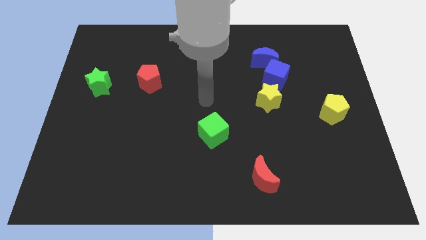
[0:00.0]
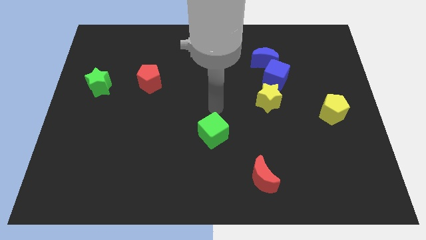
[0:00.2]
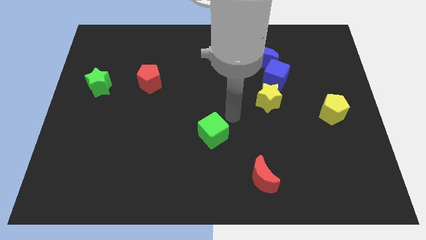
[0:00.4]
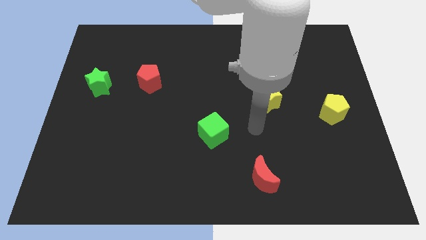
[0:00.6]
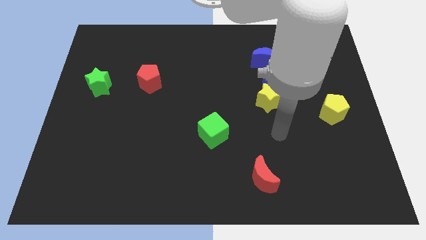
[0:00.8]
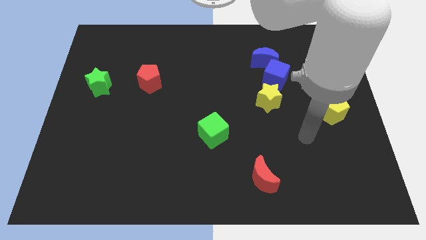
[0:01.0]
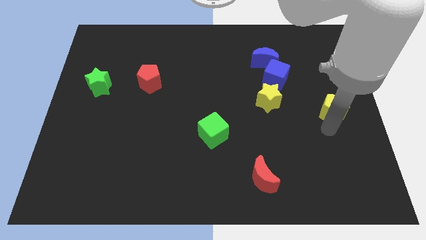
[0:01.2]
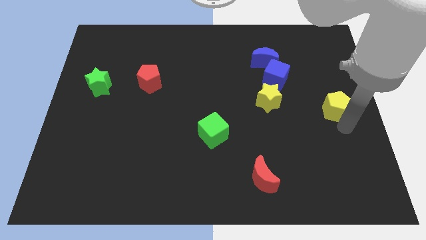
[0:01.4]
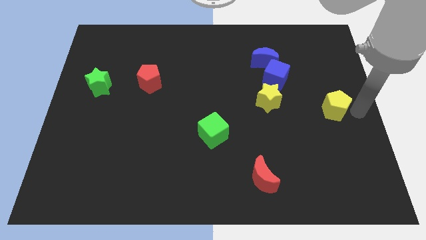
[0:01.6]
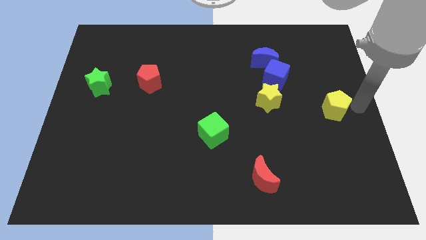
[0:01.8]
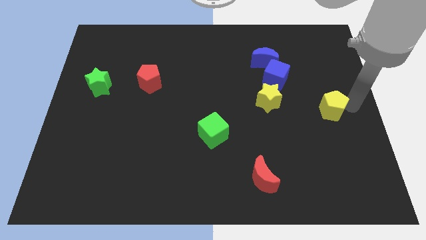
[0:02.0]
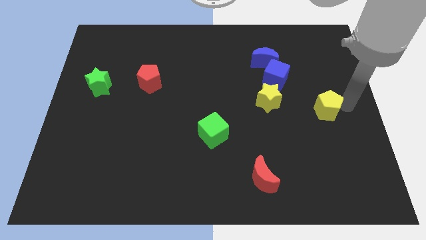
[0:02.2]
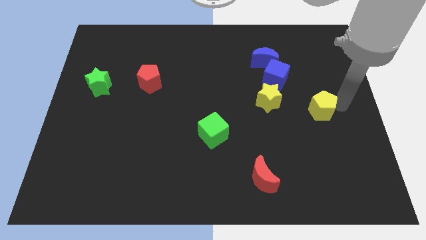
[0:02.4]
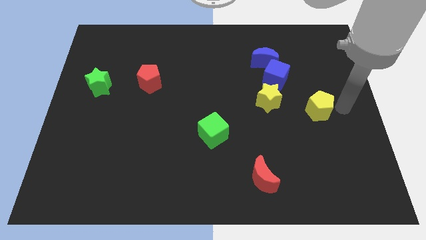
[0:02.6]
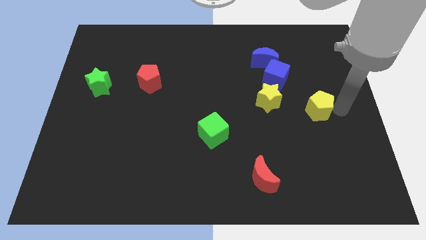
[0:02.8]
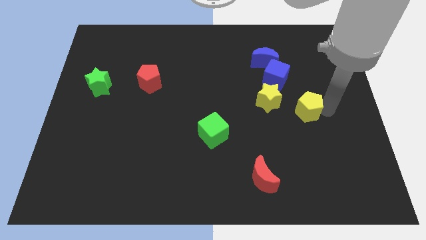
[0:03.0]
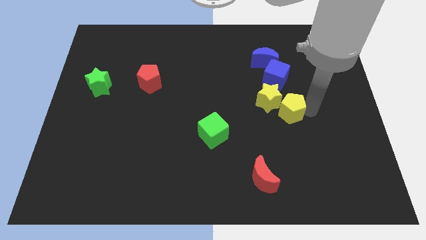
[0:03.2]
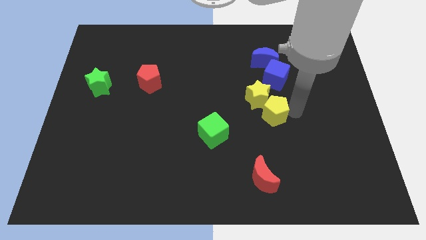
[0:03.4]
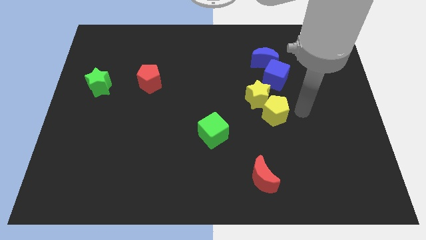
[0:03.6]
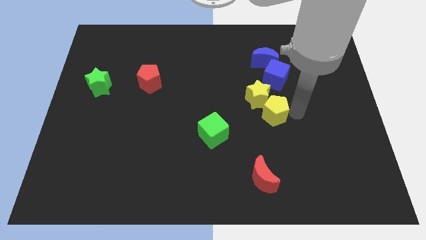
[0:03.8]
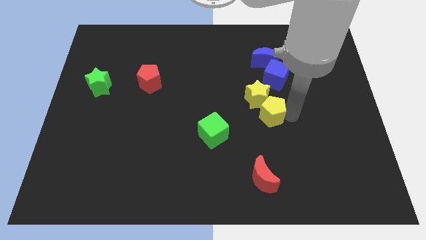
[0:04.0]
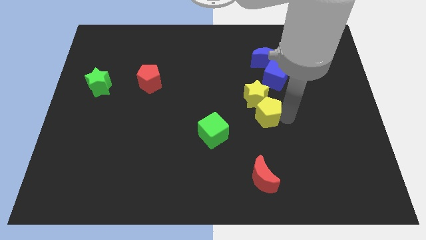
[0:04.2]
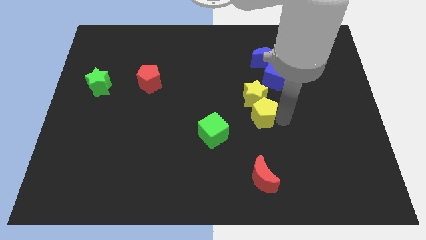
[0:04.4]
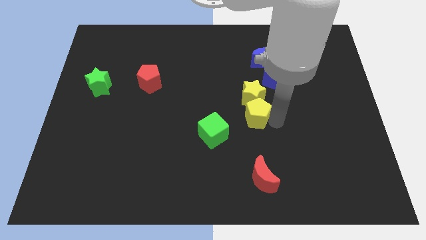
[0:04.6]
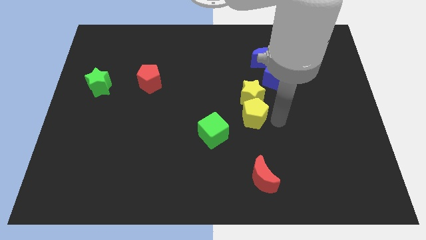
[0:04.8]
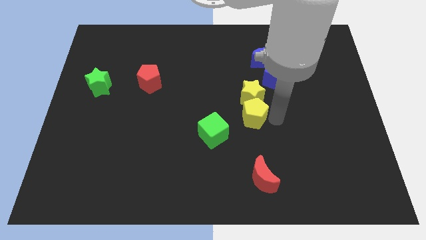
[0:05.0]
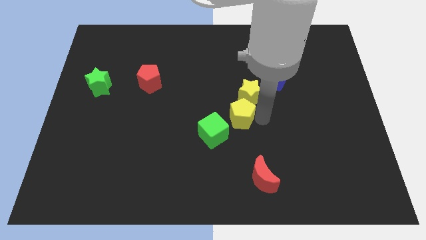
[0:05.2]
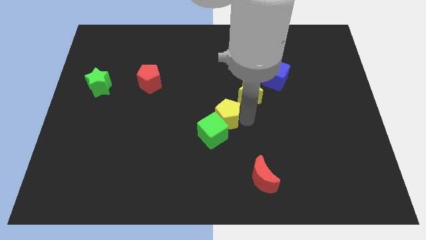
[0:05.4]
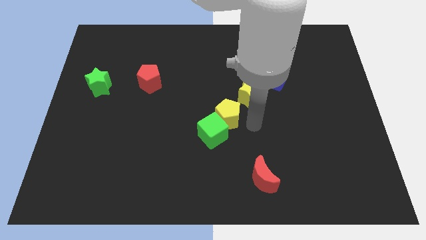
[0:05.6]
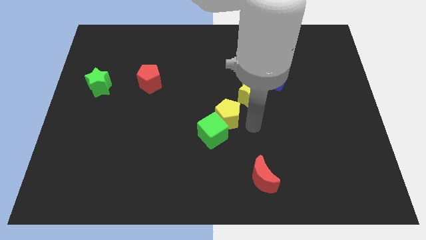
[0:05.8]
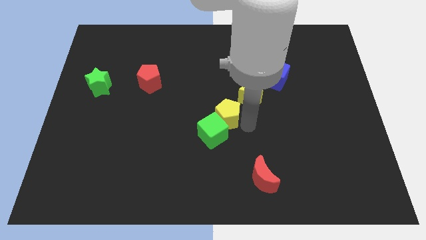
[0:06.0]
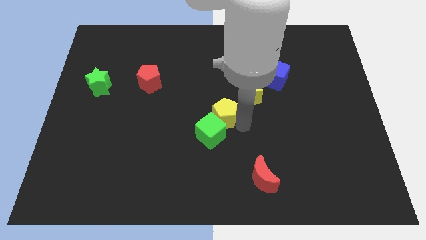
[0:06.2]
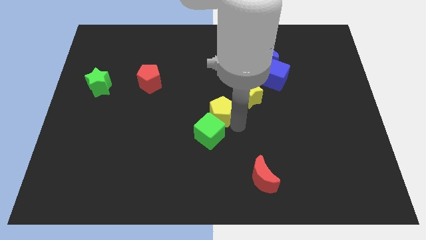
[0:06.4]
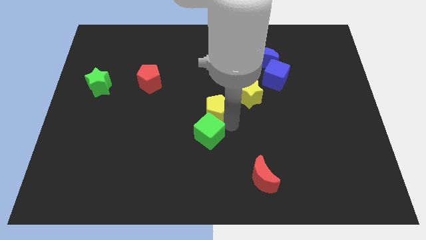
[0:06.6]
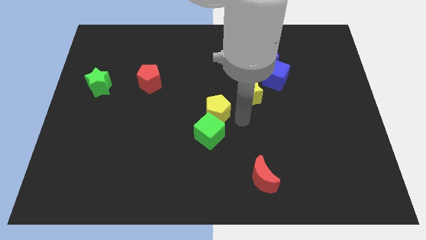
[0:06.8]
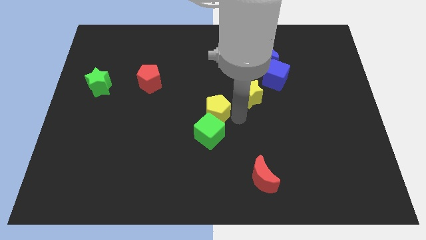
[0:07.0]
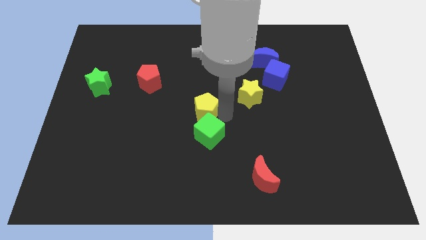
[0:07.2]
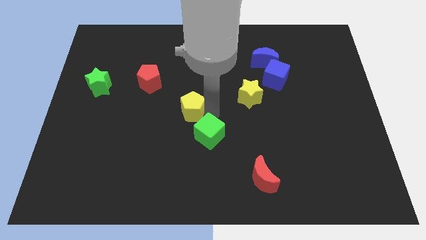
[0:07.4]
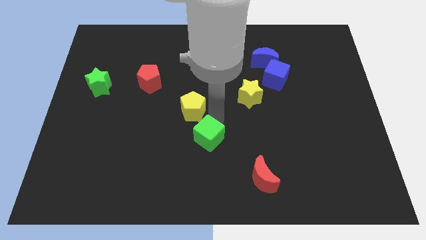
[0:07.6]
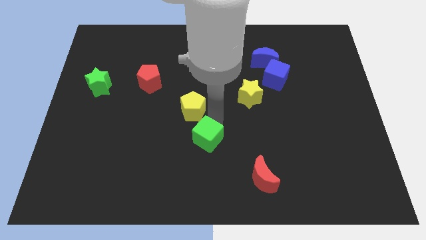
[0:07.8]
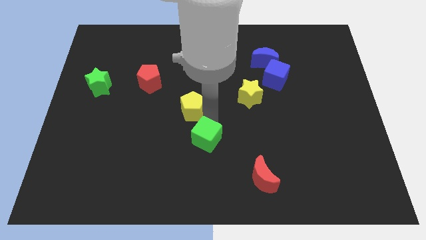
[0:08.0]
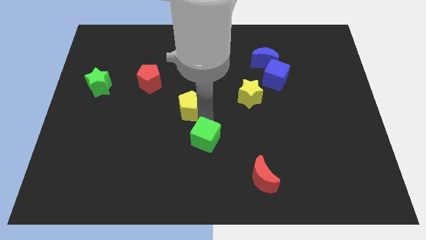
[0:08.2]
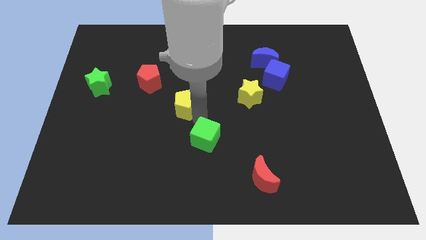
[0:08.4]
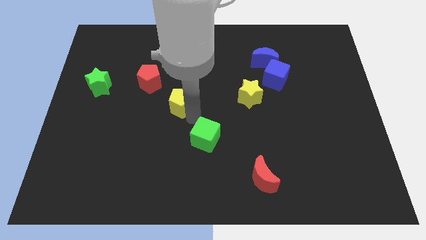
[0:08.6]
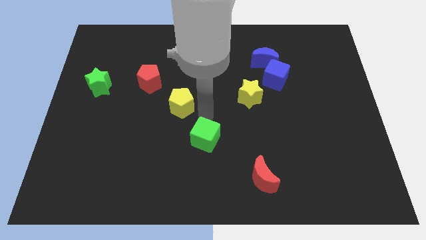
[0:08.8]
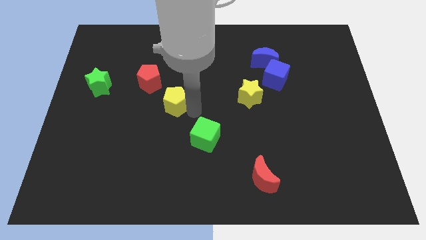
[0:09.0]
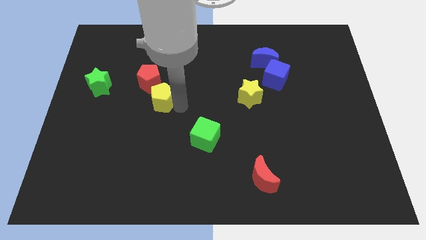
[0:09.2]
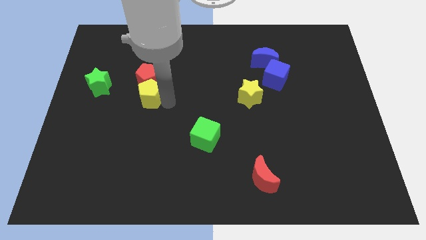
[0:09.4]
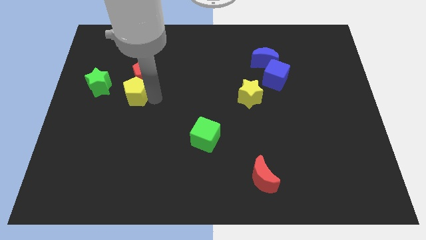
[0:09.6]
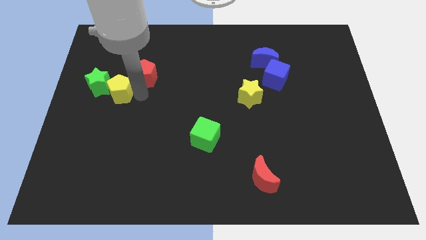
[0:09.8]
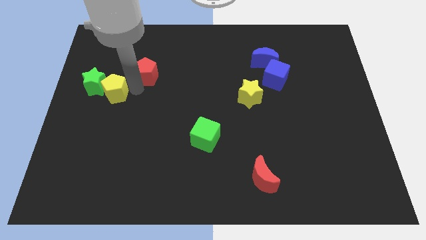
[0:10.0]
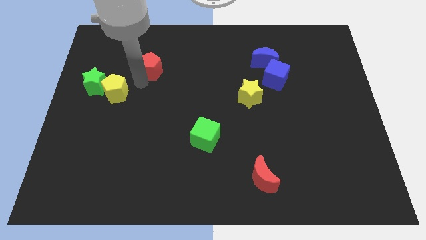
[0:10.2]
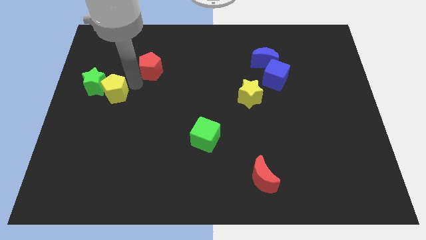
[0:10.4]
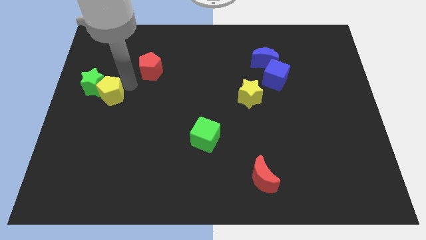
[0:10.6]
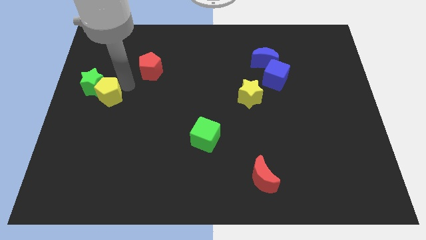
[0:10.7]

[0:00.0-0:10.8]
slide the yellow pentagon to the left side of the board

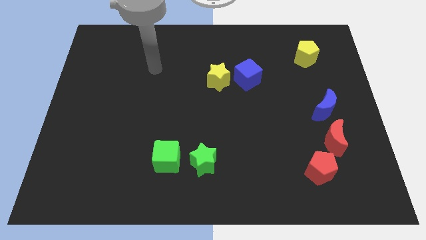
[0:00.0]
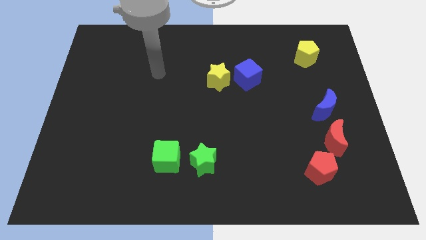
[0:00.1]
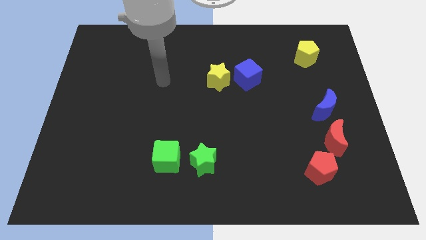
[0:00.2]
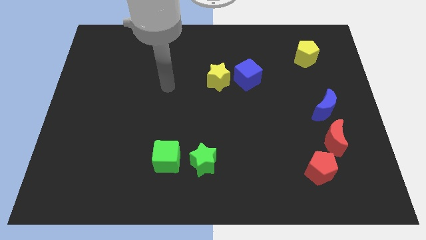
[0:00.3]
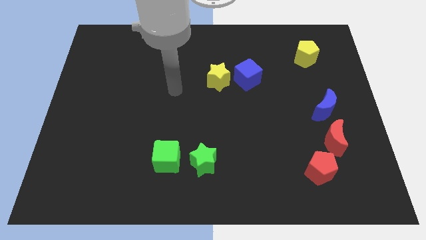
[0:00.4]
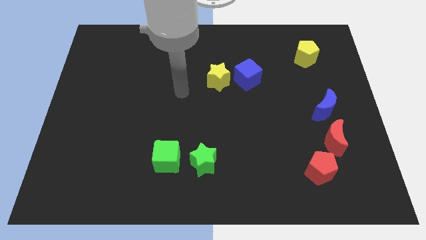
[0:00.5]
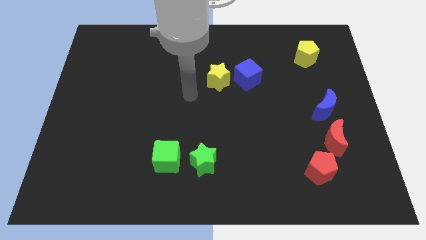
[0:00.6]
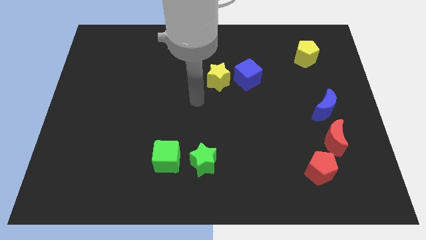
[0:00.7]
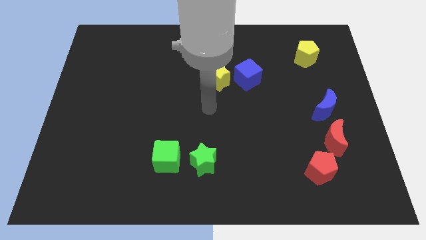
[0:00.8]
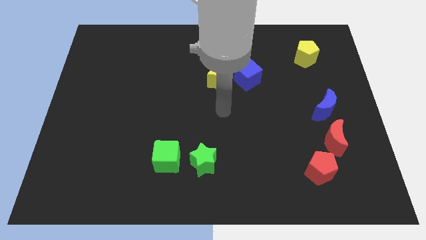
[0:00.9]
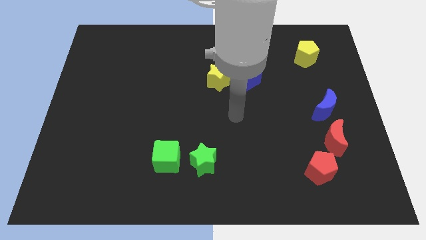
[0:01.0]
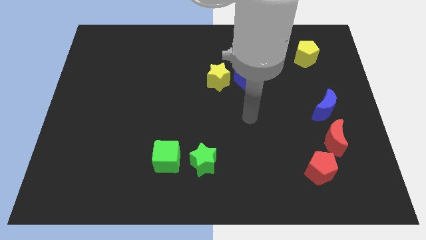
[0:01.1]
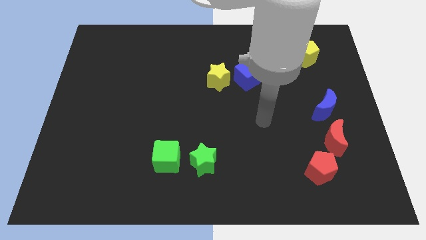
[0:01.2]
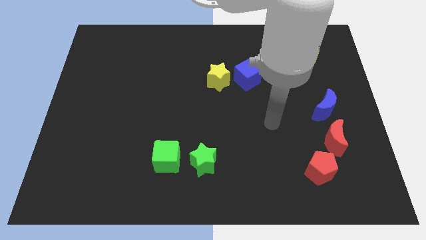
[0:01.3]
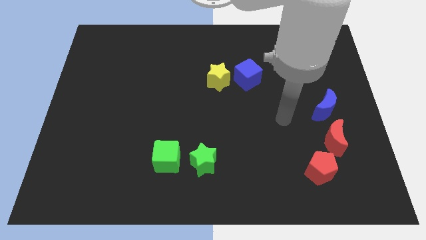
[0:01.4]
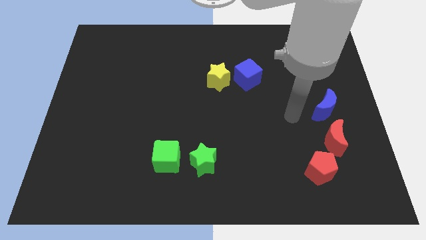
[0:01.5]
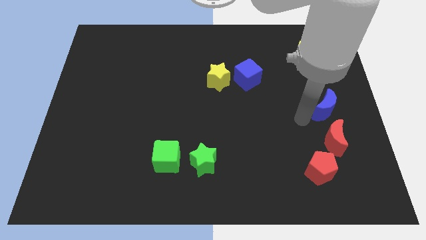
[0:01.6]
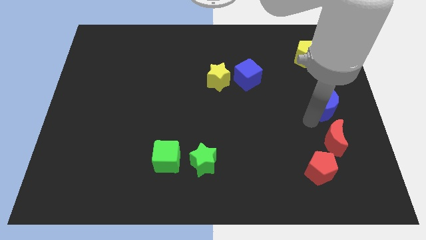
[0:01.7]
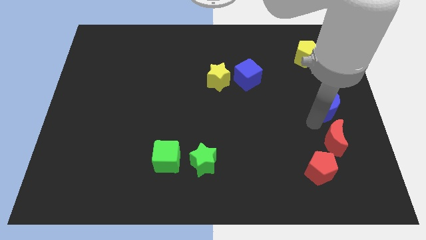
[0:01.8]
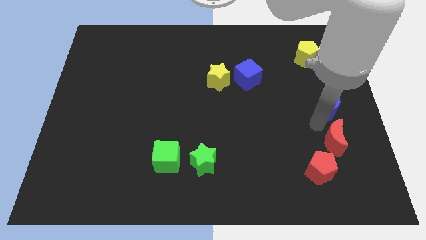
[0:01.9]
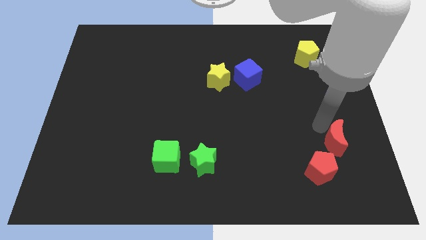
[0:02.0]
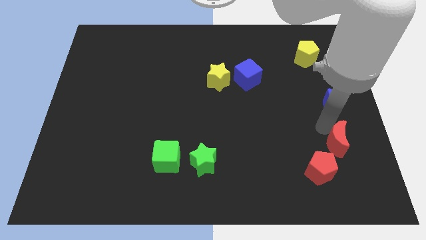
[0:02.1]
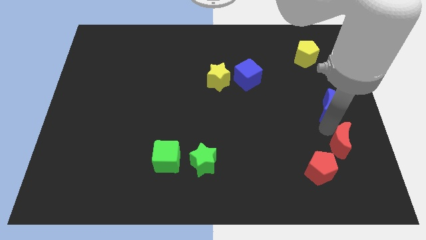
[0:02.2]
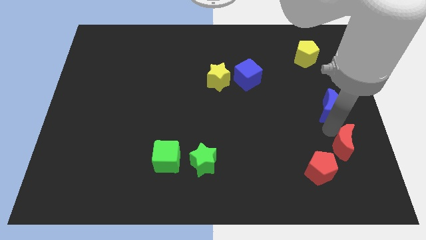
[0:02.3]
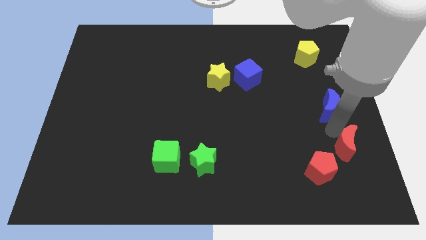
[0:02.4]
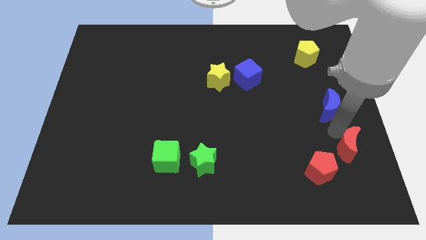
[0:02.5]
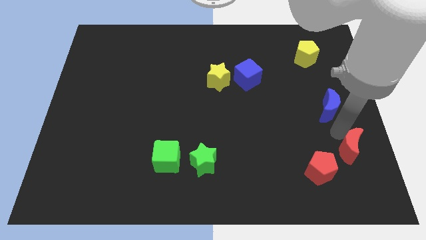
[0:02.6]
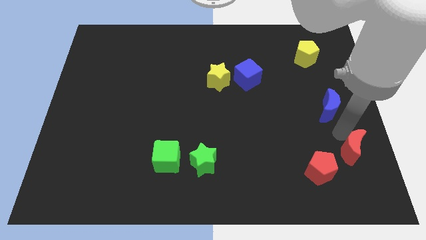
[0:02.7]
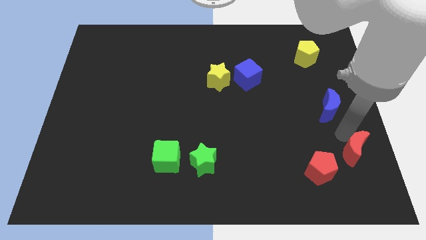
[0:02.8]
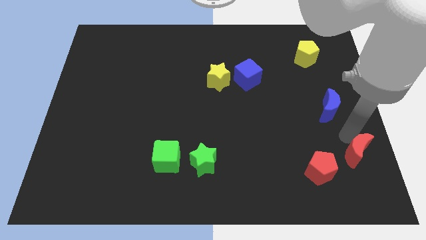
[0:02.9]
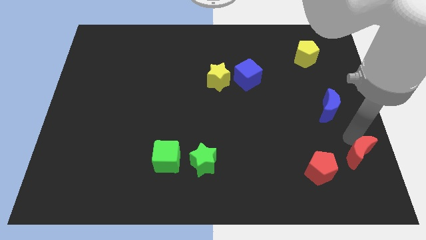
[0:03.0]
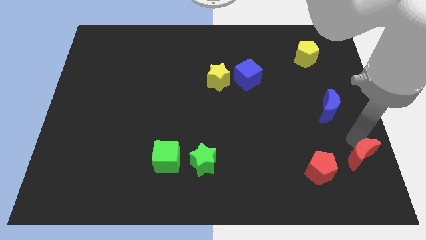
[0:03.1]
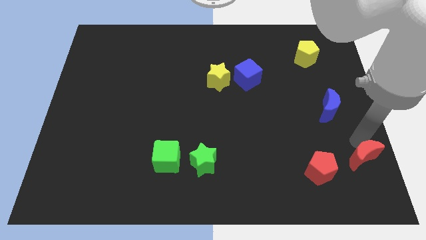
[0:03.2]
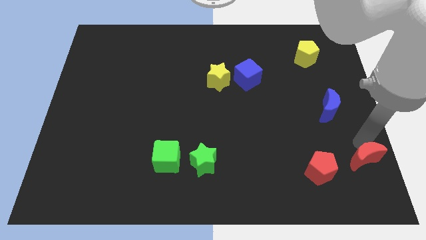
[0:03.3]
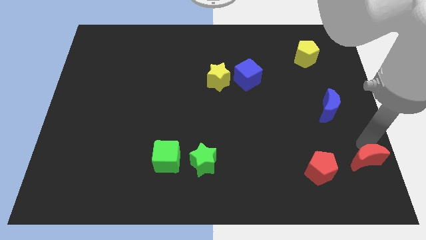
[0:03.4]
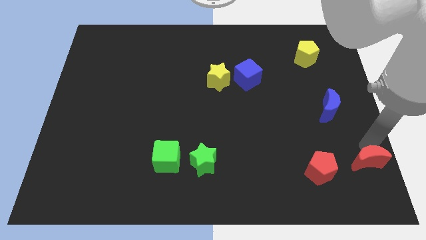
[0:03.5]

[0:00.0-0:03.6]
move the red moon to the lower right corner
